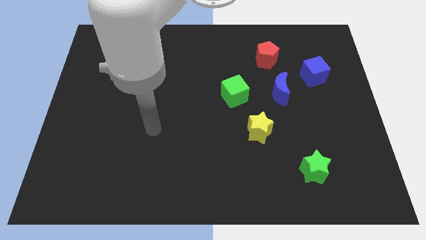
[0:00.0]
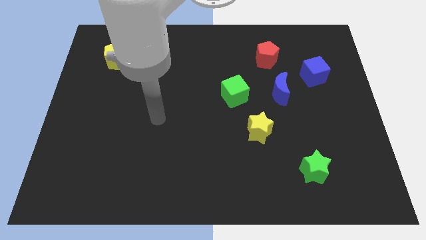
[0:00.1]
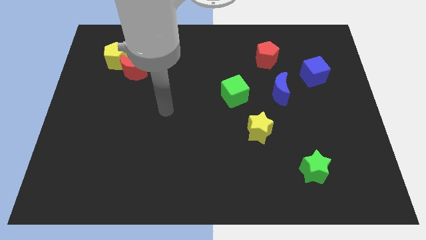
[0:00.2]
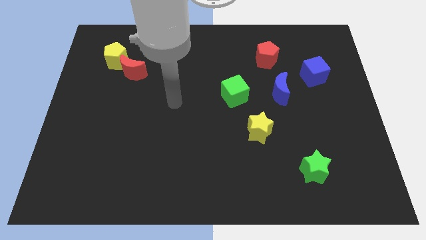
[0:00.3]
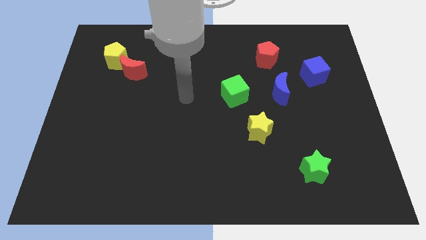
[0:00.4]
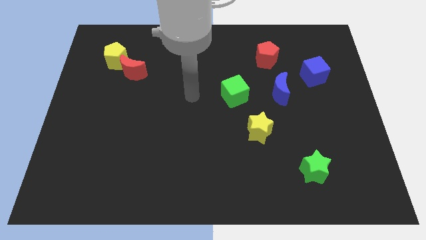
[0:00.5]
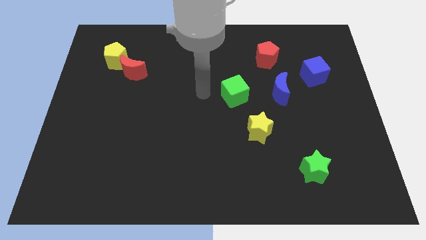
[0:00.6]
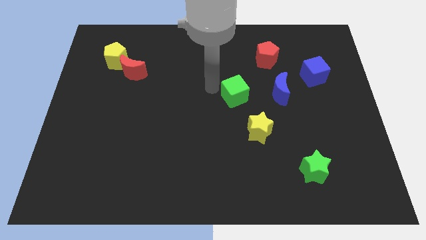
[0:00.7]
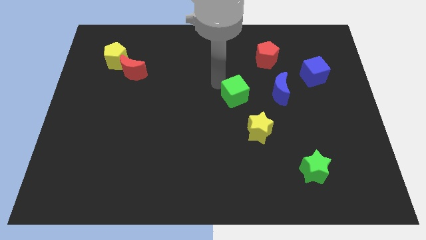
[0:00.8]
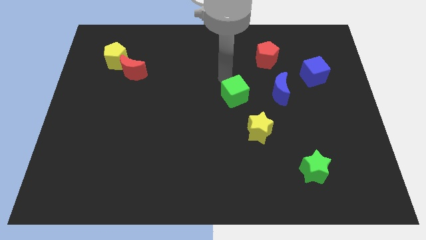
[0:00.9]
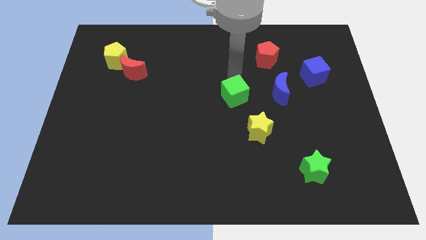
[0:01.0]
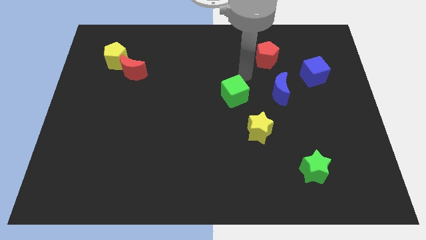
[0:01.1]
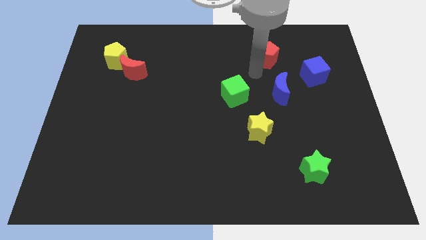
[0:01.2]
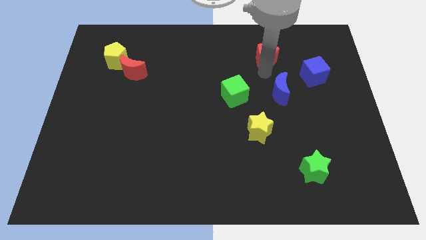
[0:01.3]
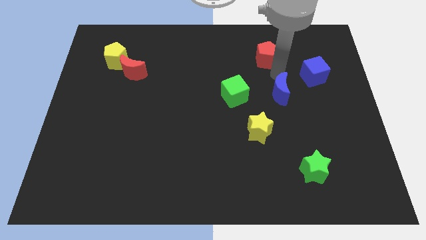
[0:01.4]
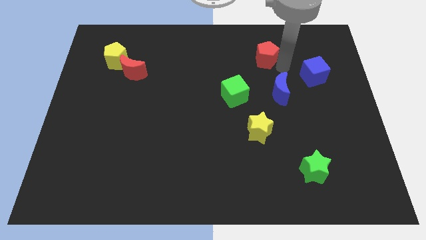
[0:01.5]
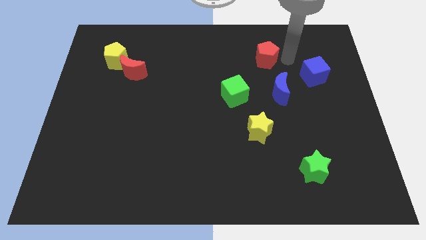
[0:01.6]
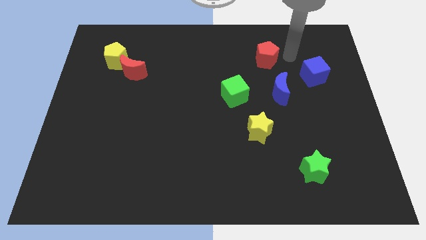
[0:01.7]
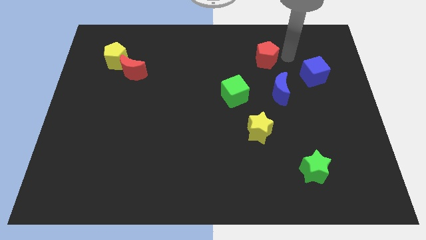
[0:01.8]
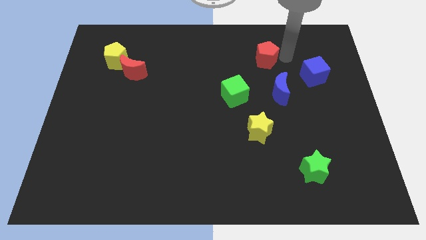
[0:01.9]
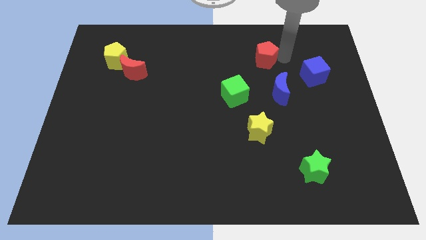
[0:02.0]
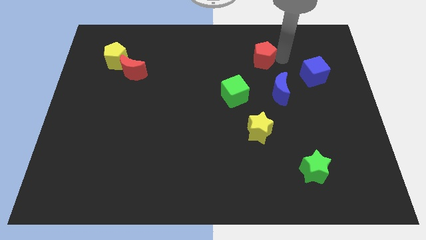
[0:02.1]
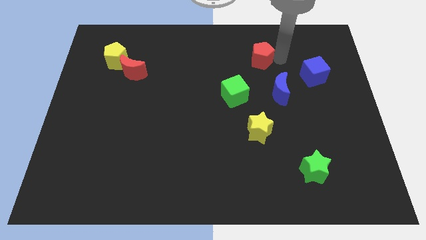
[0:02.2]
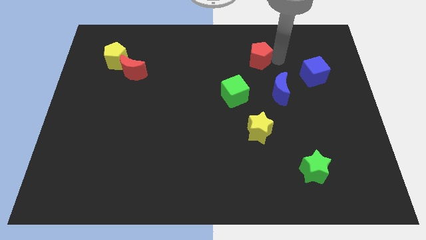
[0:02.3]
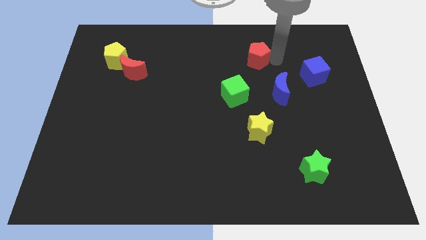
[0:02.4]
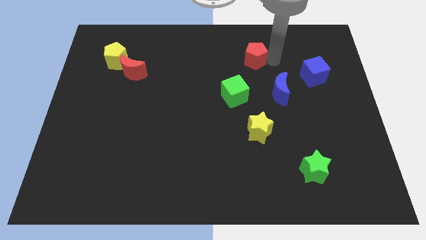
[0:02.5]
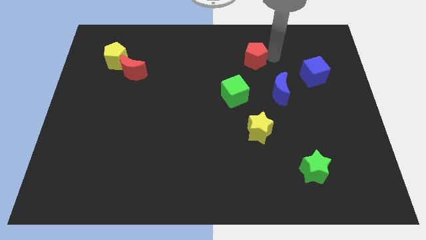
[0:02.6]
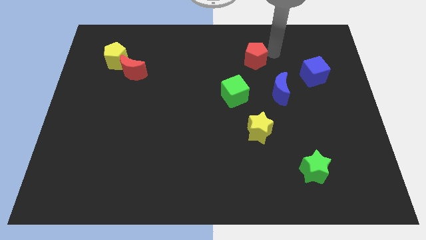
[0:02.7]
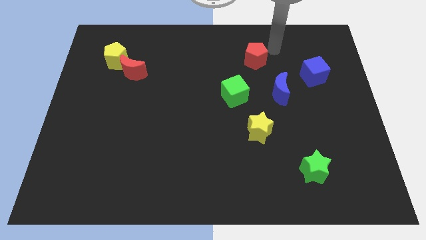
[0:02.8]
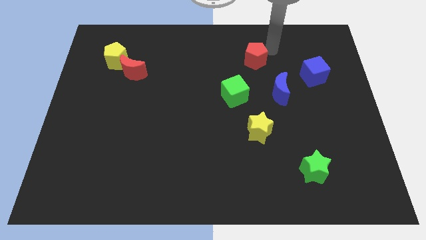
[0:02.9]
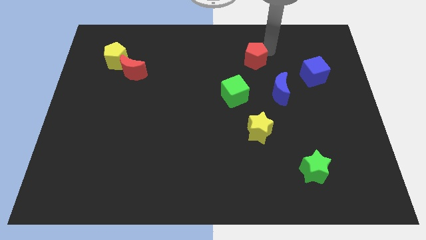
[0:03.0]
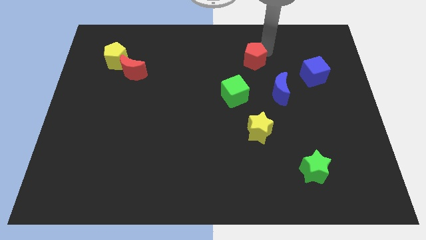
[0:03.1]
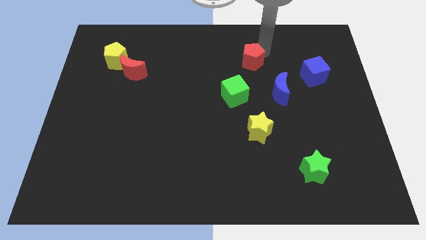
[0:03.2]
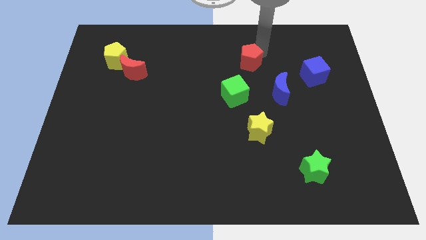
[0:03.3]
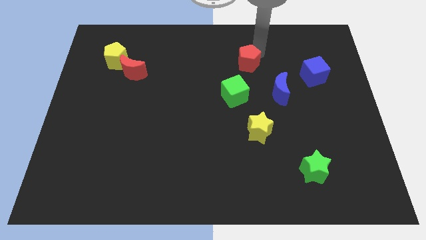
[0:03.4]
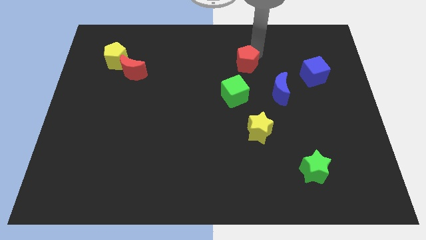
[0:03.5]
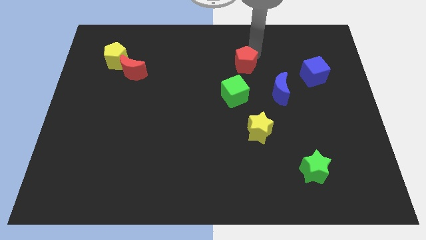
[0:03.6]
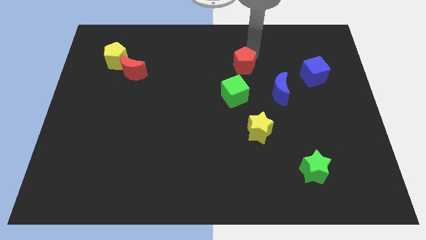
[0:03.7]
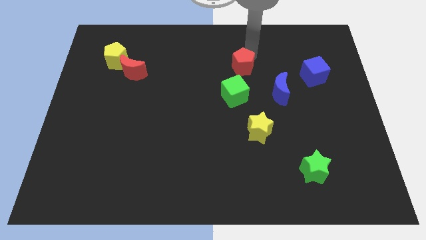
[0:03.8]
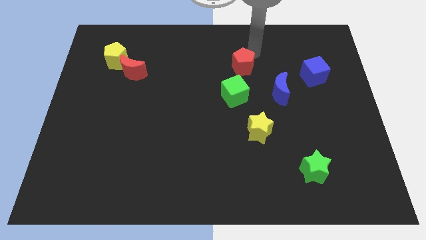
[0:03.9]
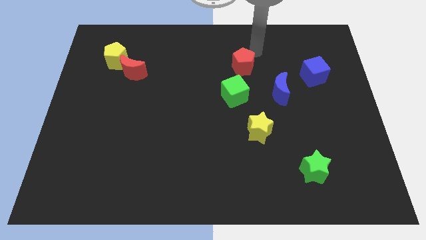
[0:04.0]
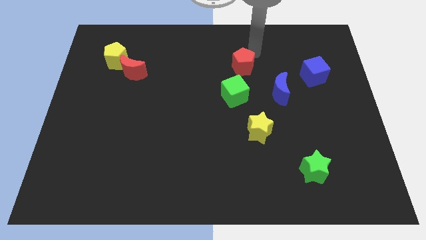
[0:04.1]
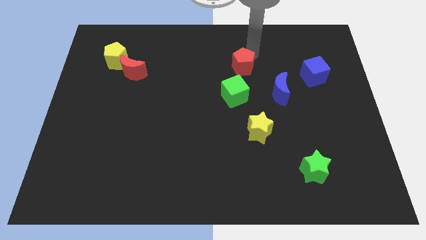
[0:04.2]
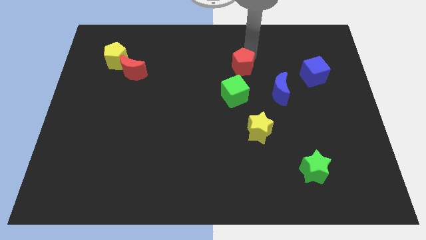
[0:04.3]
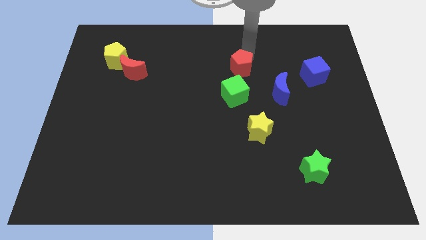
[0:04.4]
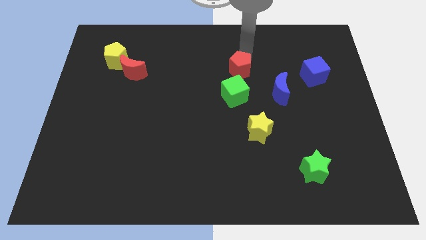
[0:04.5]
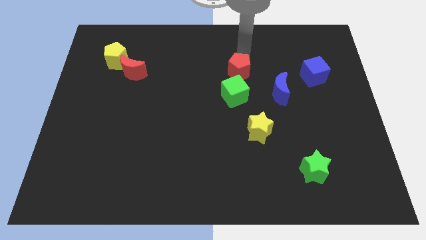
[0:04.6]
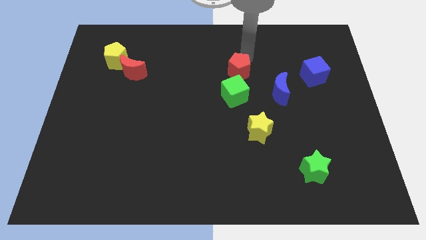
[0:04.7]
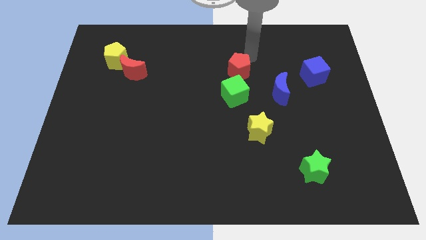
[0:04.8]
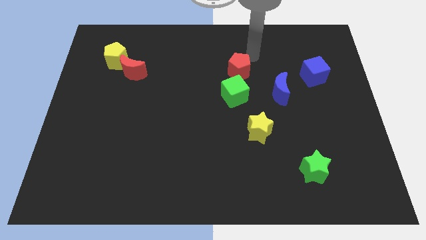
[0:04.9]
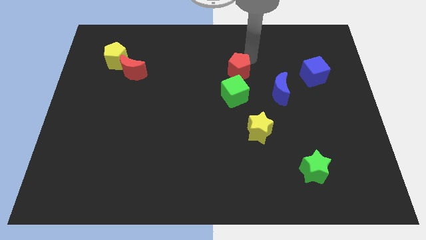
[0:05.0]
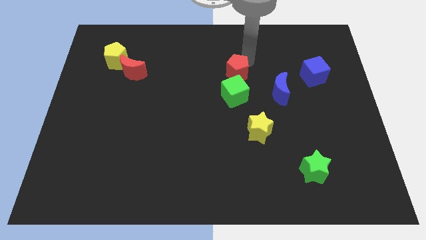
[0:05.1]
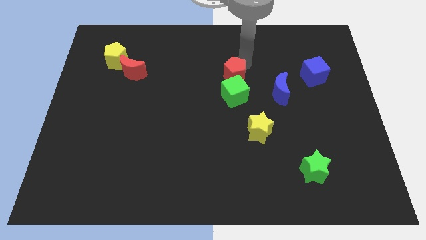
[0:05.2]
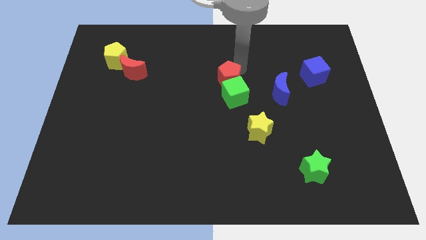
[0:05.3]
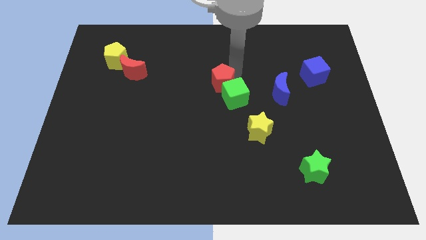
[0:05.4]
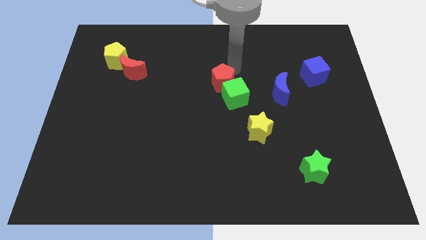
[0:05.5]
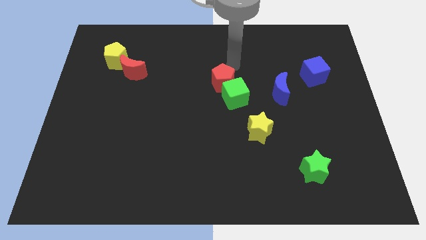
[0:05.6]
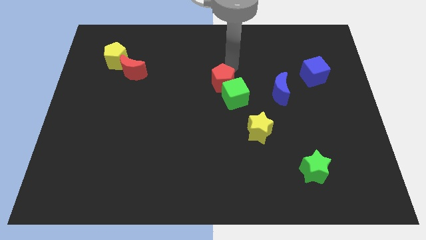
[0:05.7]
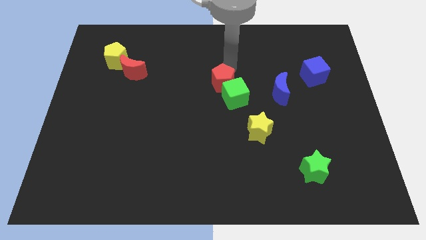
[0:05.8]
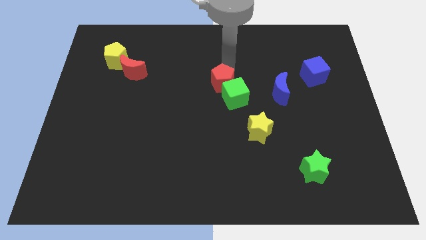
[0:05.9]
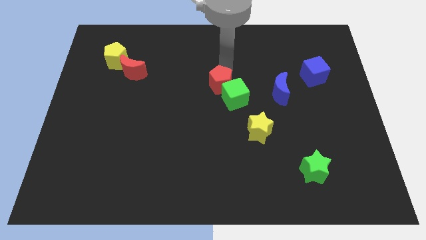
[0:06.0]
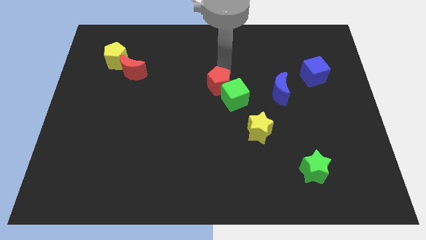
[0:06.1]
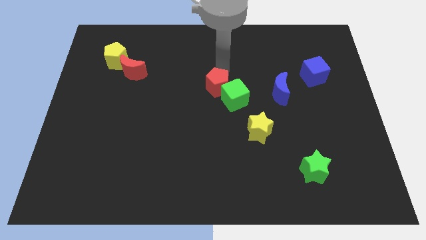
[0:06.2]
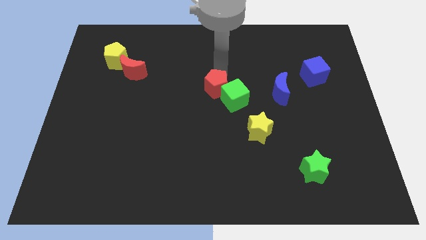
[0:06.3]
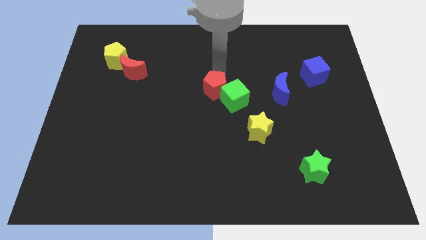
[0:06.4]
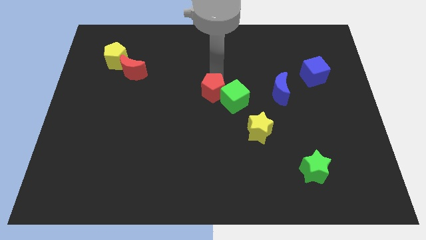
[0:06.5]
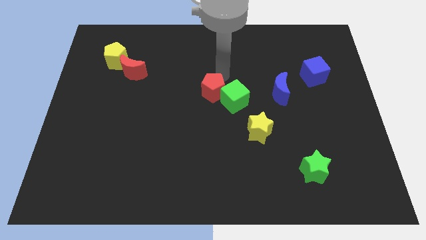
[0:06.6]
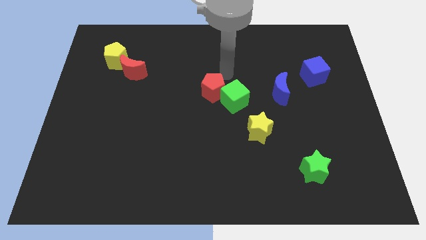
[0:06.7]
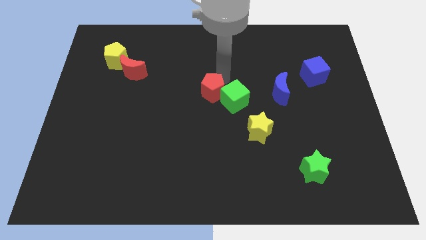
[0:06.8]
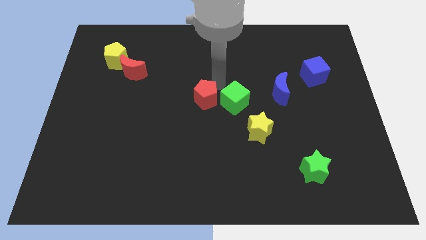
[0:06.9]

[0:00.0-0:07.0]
push the red pentagon down and left diagonally

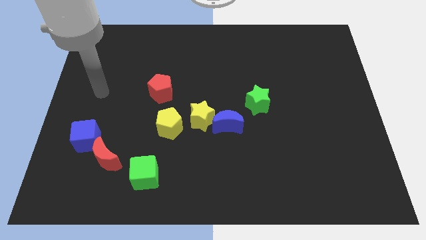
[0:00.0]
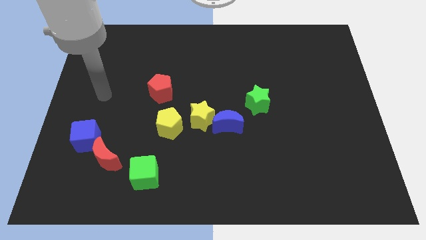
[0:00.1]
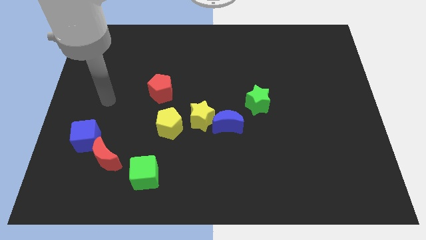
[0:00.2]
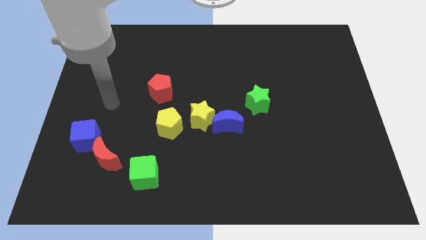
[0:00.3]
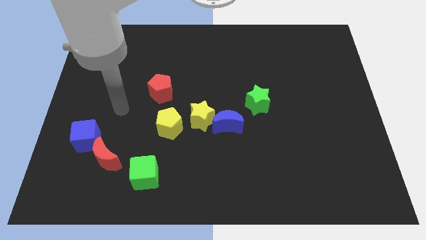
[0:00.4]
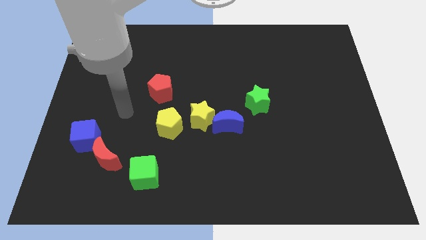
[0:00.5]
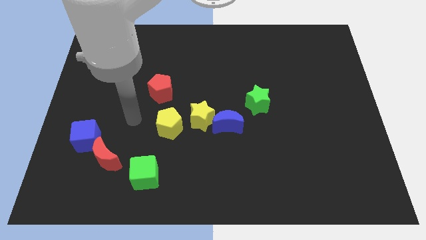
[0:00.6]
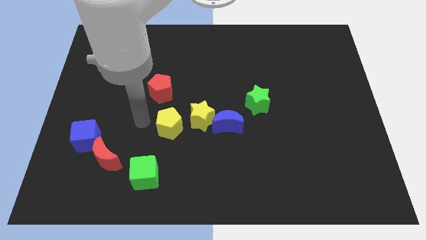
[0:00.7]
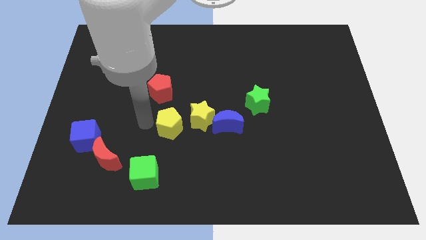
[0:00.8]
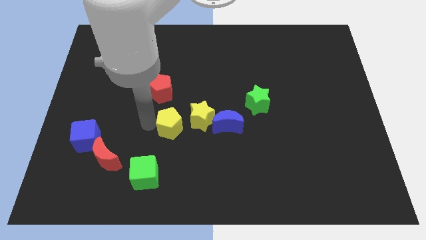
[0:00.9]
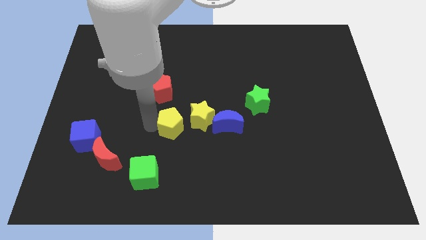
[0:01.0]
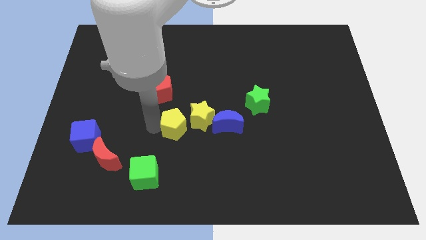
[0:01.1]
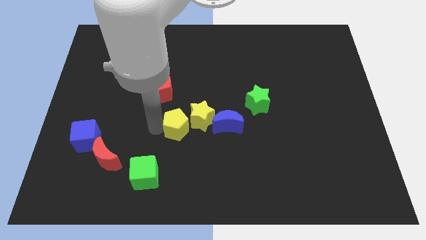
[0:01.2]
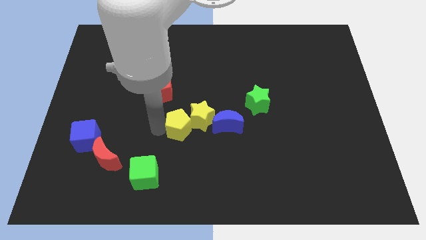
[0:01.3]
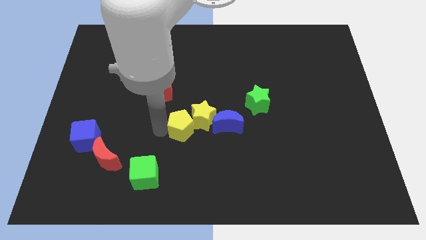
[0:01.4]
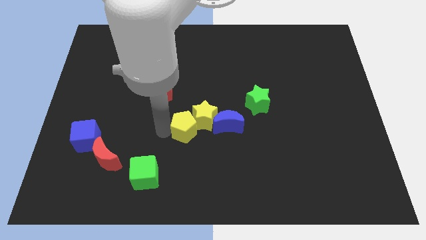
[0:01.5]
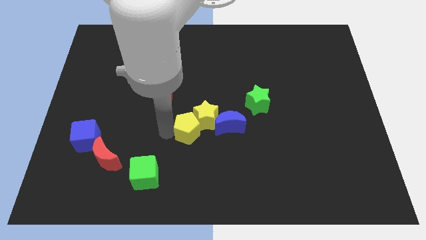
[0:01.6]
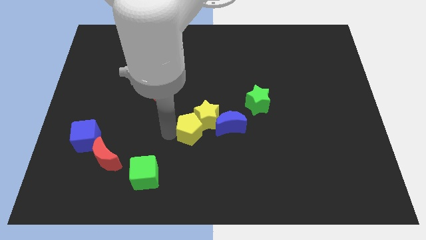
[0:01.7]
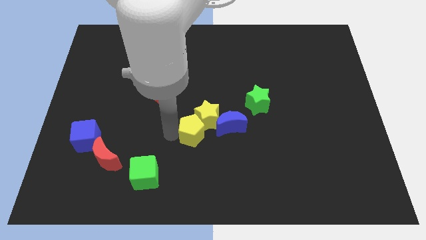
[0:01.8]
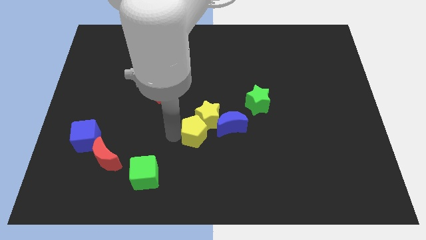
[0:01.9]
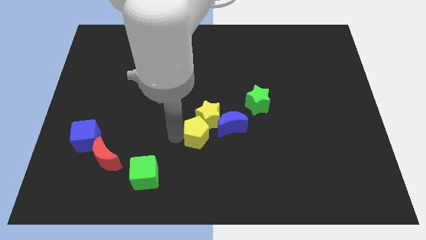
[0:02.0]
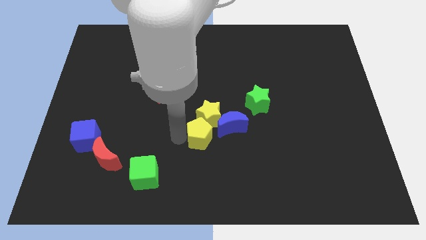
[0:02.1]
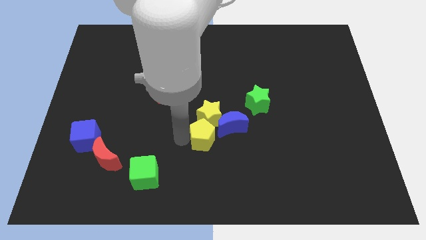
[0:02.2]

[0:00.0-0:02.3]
slightly push the yellow pentagon to the right
